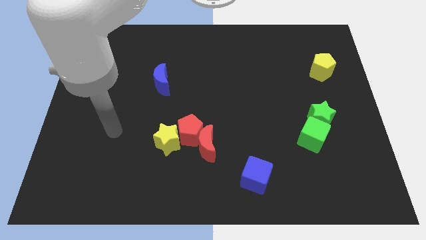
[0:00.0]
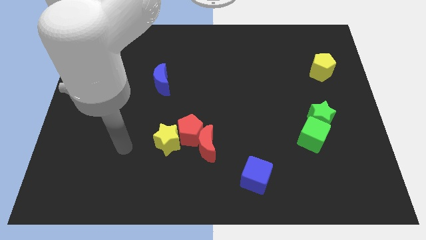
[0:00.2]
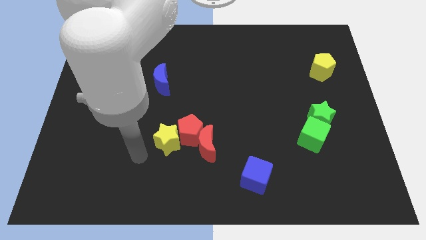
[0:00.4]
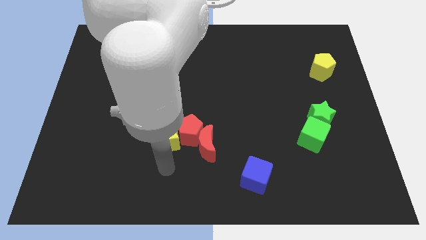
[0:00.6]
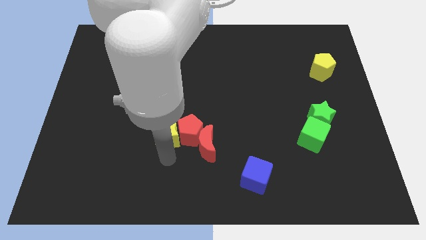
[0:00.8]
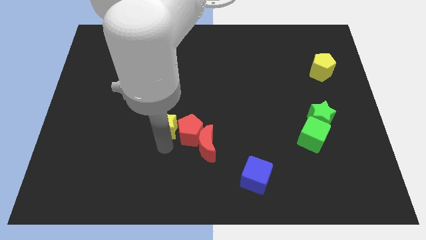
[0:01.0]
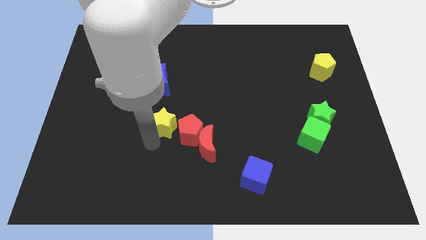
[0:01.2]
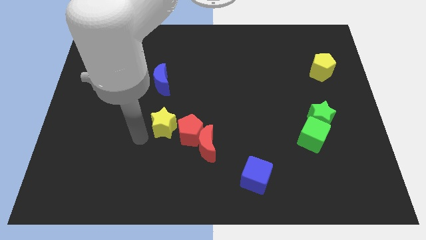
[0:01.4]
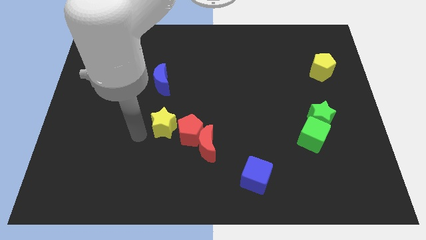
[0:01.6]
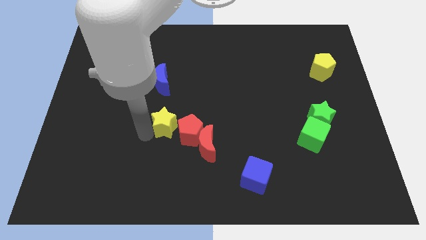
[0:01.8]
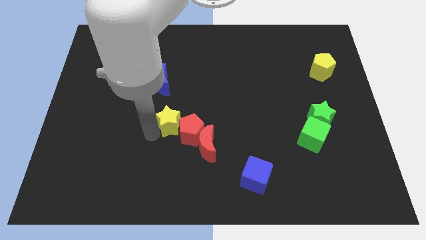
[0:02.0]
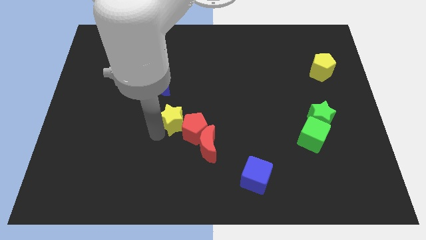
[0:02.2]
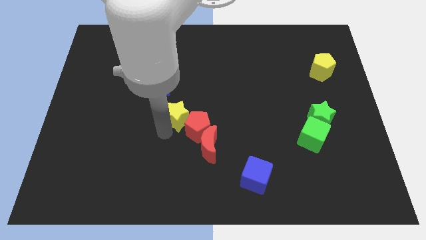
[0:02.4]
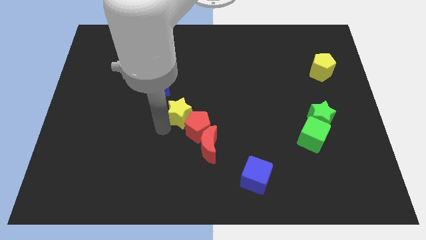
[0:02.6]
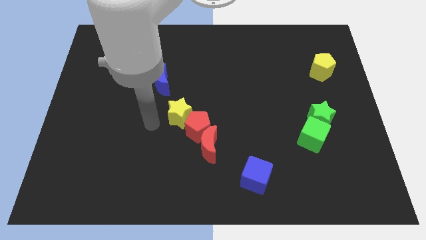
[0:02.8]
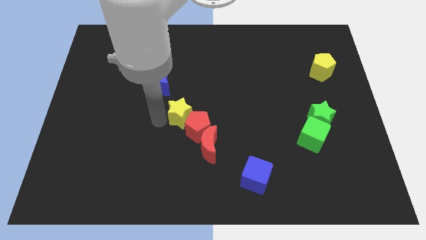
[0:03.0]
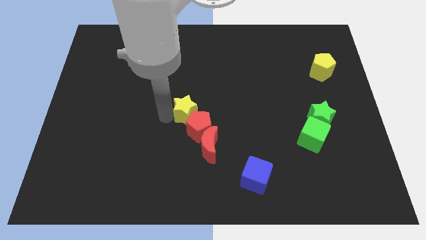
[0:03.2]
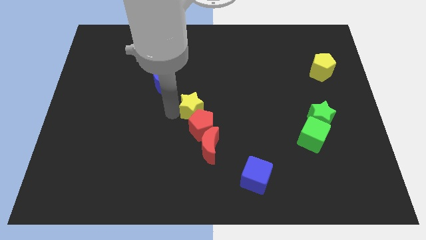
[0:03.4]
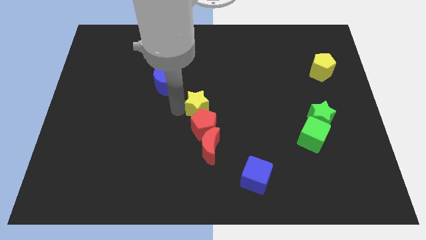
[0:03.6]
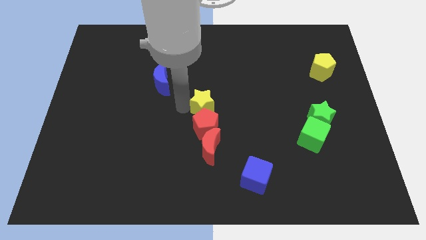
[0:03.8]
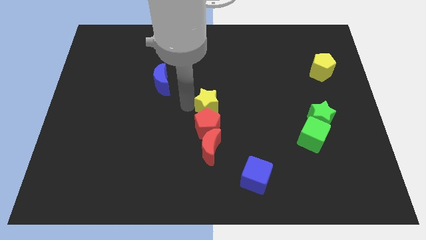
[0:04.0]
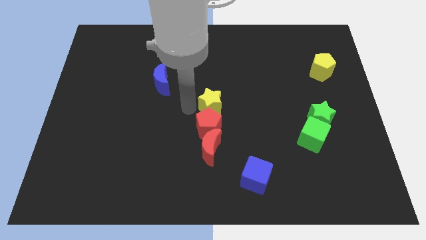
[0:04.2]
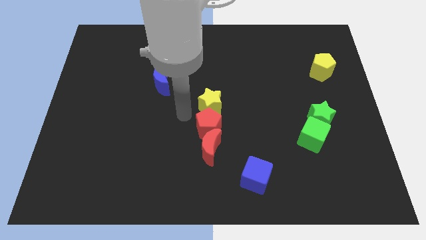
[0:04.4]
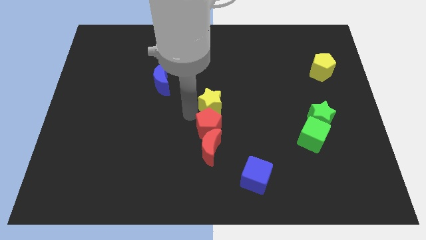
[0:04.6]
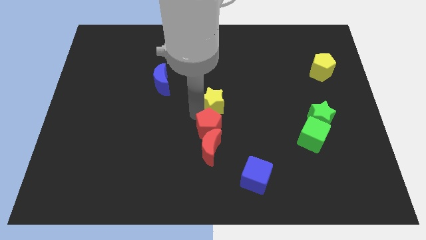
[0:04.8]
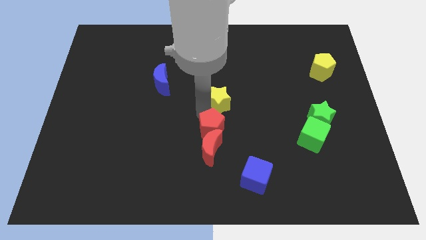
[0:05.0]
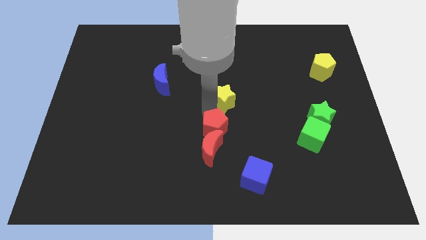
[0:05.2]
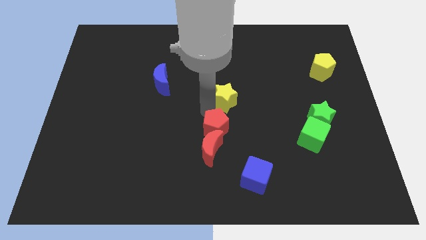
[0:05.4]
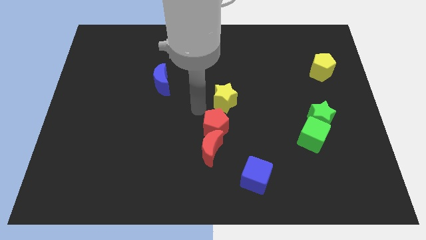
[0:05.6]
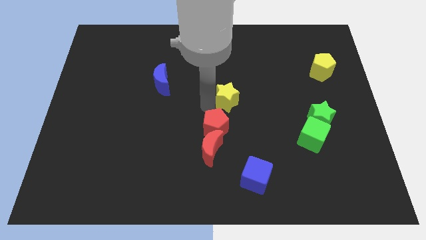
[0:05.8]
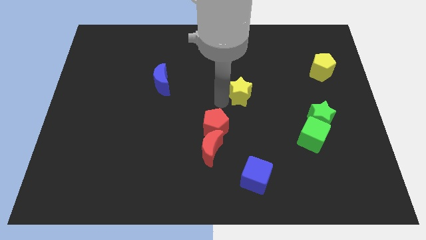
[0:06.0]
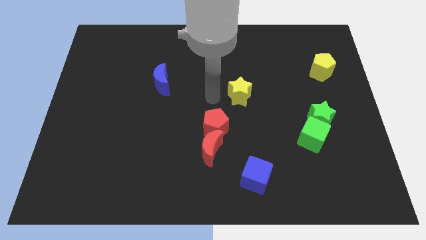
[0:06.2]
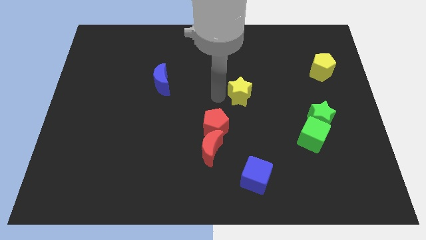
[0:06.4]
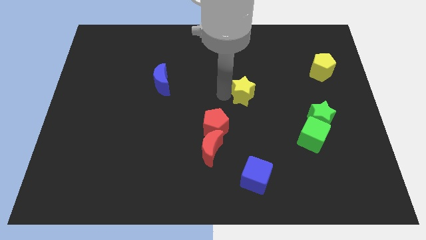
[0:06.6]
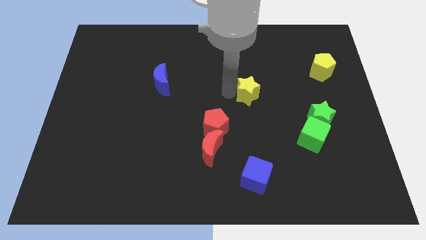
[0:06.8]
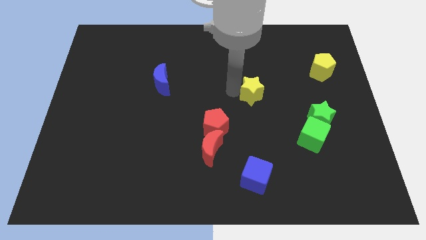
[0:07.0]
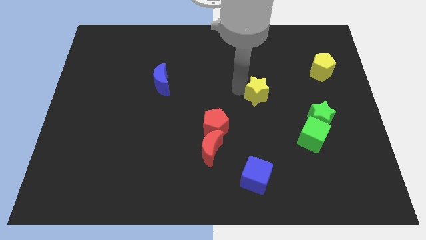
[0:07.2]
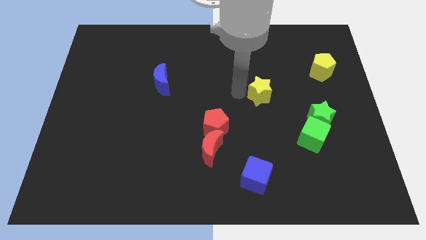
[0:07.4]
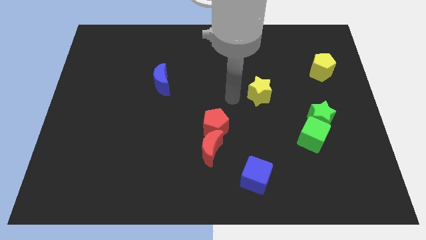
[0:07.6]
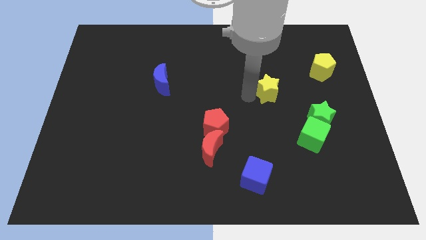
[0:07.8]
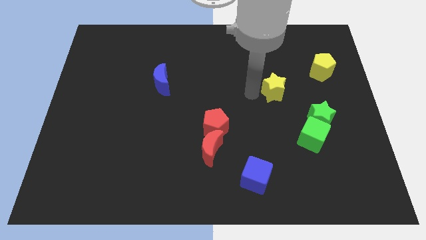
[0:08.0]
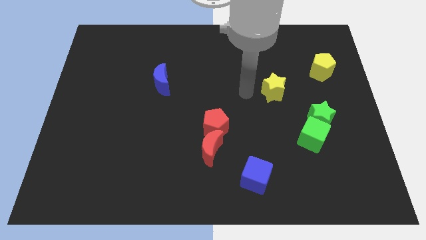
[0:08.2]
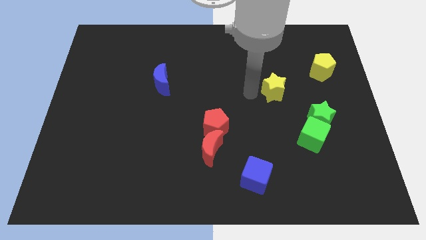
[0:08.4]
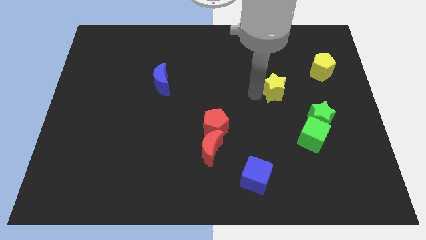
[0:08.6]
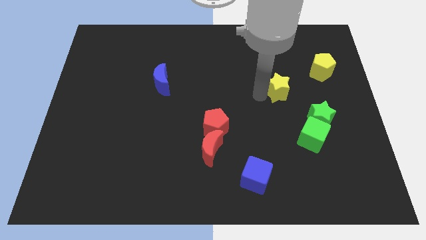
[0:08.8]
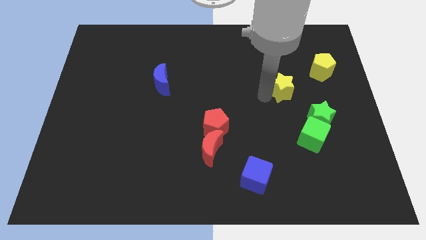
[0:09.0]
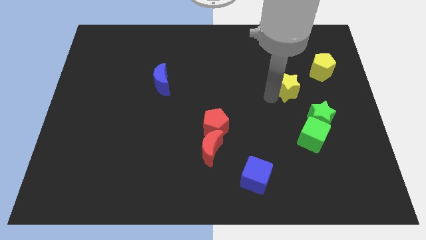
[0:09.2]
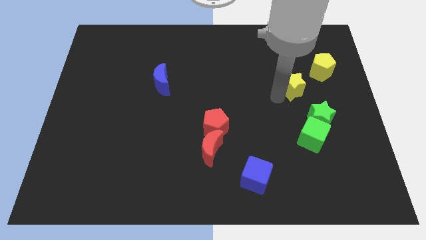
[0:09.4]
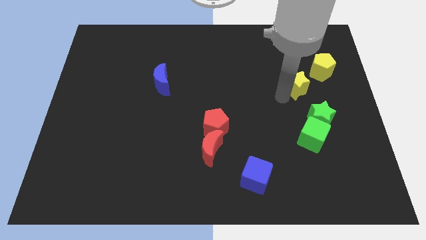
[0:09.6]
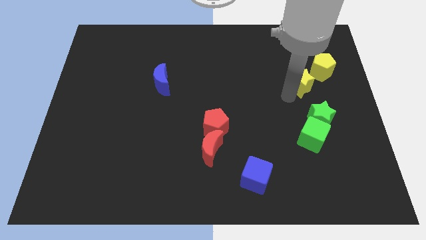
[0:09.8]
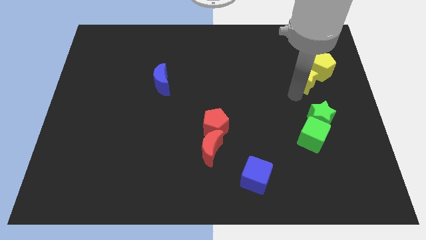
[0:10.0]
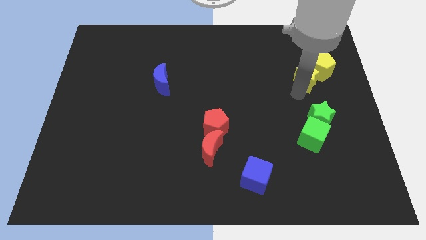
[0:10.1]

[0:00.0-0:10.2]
push the yellow star next to the yellow pentagon

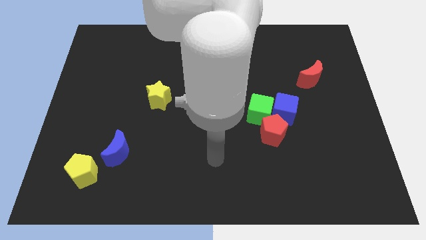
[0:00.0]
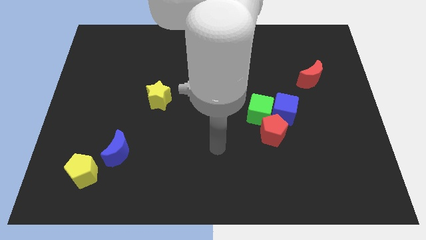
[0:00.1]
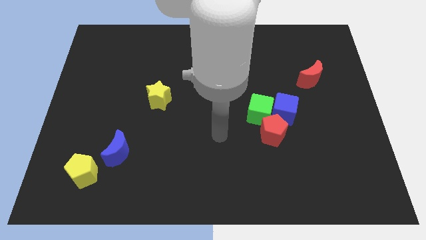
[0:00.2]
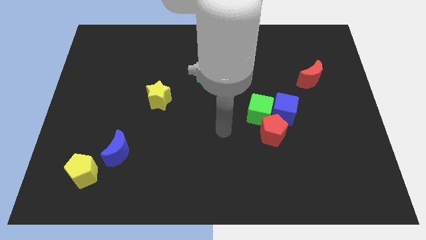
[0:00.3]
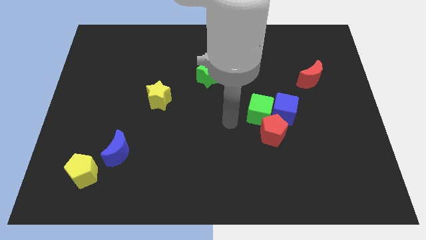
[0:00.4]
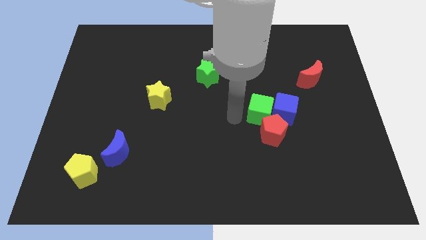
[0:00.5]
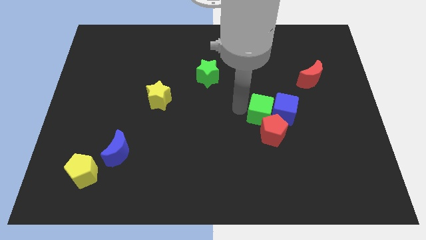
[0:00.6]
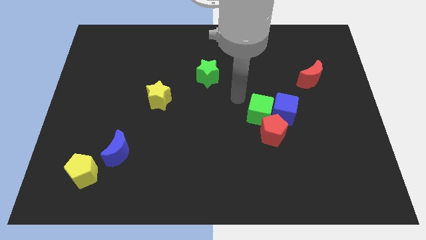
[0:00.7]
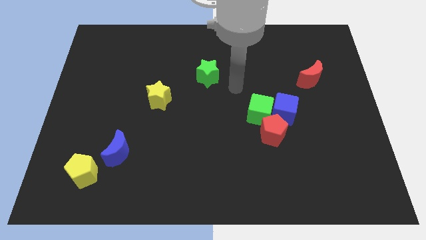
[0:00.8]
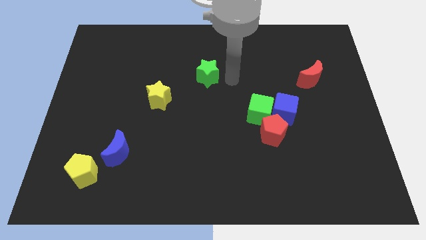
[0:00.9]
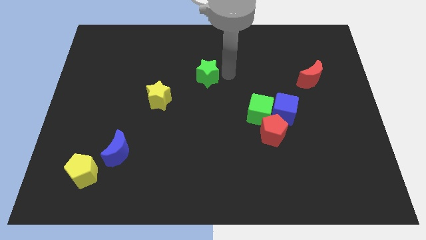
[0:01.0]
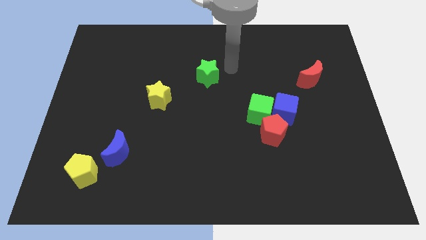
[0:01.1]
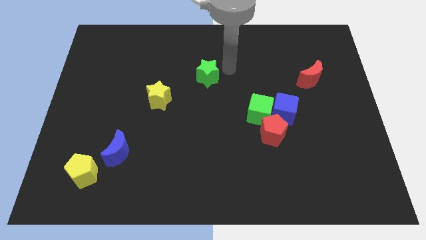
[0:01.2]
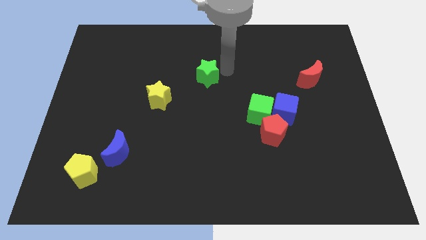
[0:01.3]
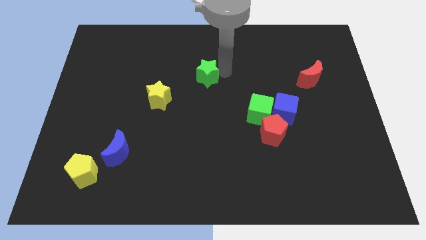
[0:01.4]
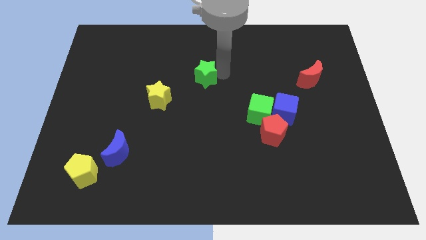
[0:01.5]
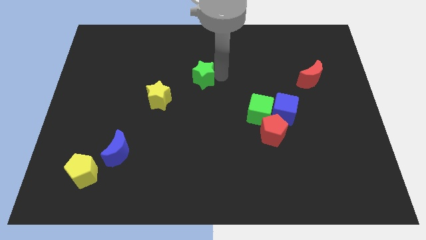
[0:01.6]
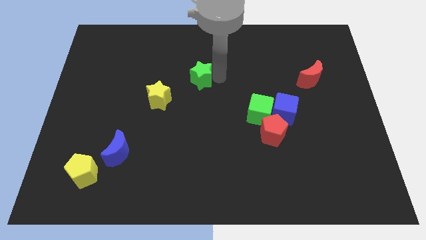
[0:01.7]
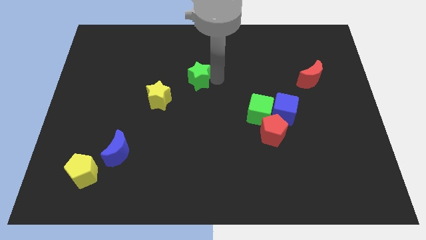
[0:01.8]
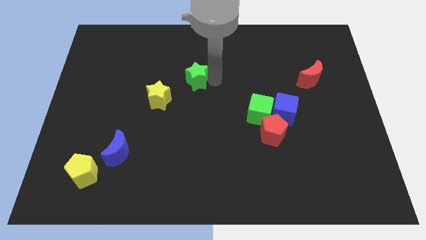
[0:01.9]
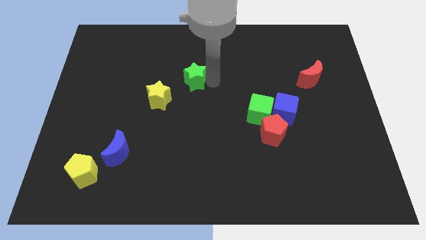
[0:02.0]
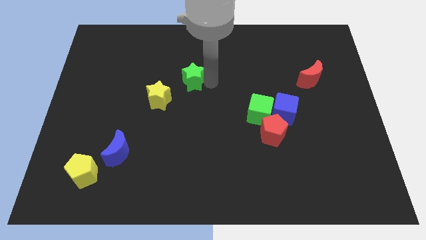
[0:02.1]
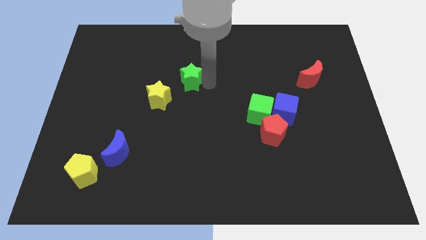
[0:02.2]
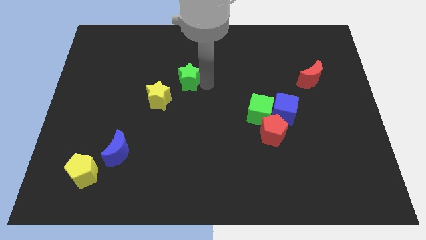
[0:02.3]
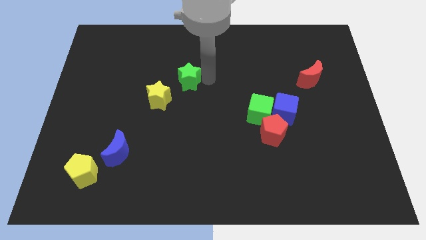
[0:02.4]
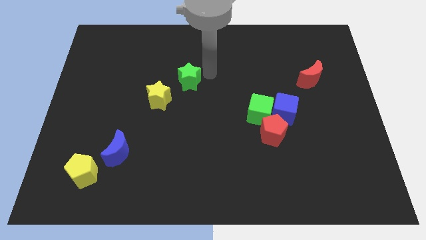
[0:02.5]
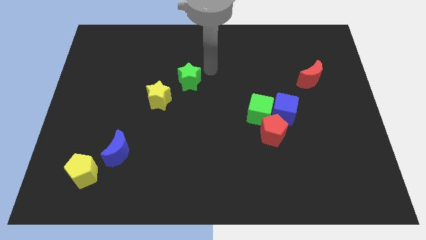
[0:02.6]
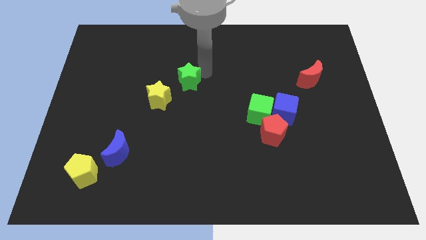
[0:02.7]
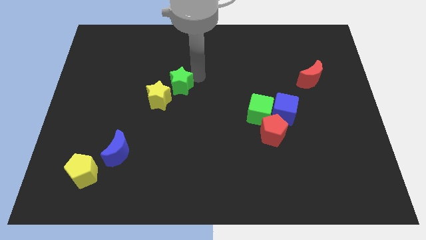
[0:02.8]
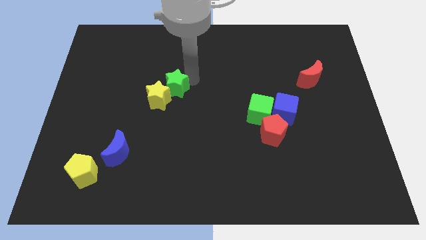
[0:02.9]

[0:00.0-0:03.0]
slide the green star to the yellow star
